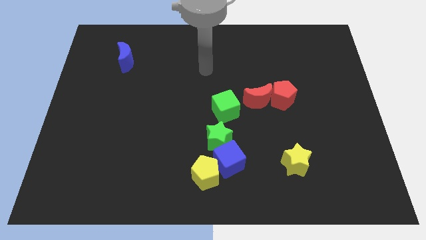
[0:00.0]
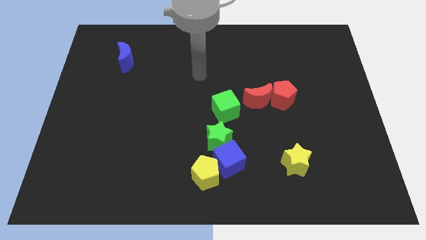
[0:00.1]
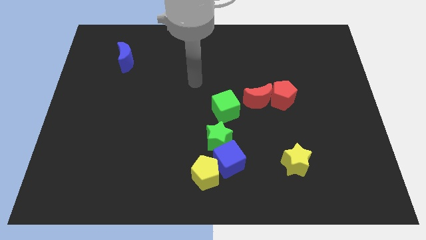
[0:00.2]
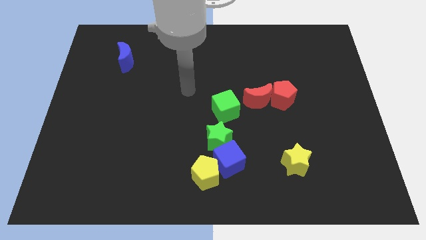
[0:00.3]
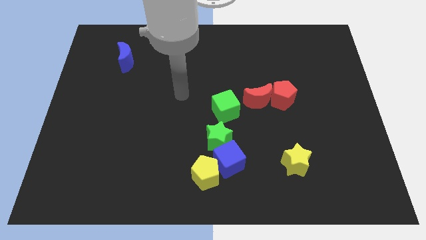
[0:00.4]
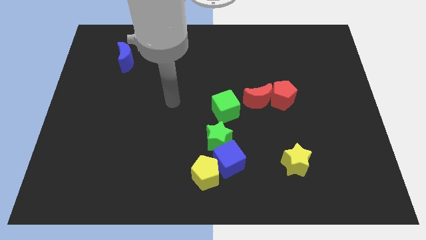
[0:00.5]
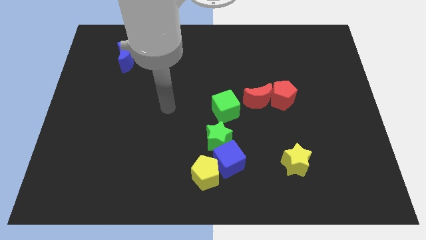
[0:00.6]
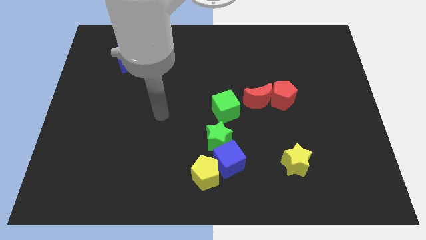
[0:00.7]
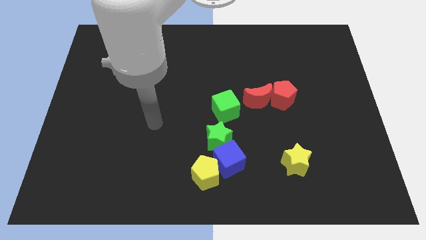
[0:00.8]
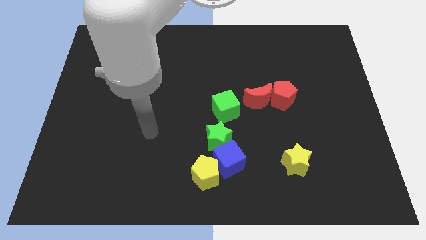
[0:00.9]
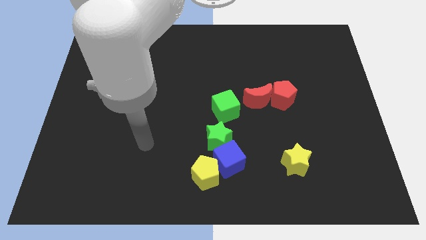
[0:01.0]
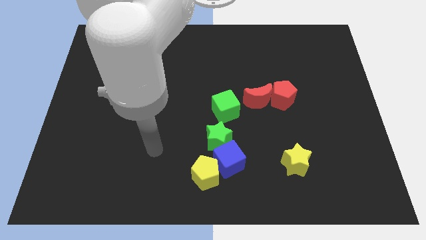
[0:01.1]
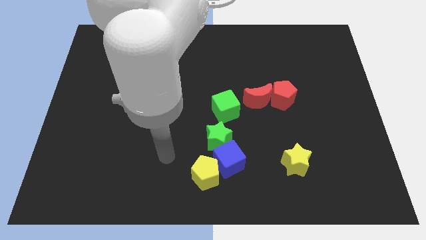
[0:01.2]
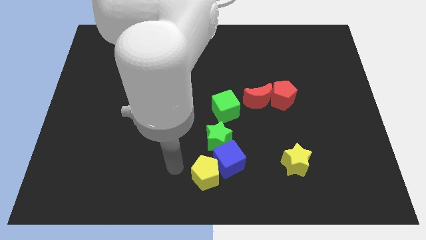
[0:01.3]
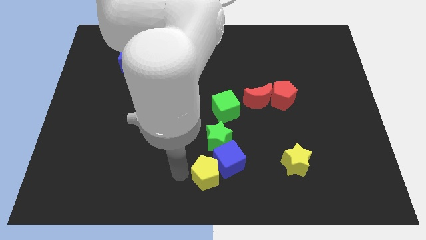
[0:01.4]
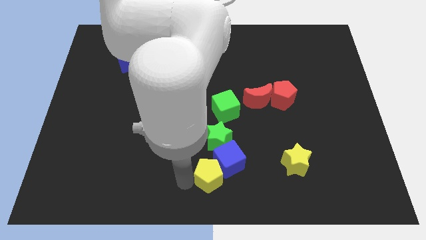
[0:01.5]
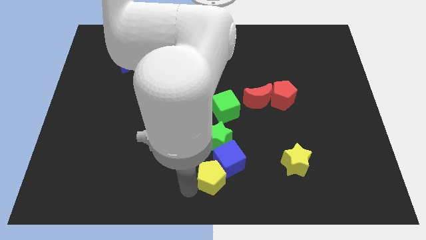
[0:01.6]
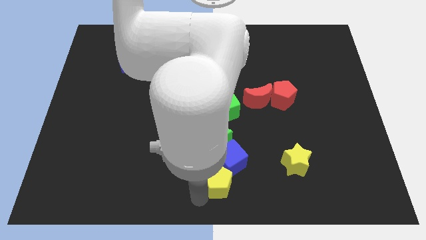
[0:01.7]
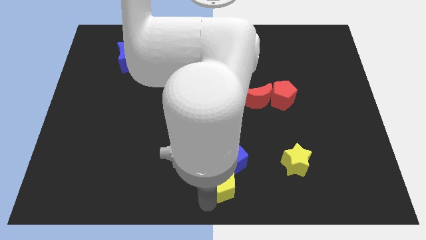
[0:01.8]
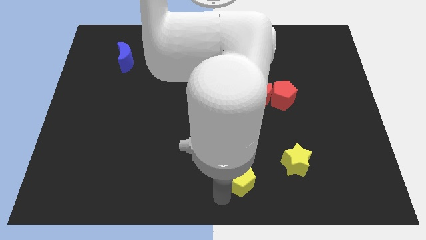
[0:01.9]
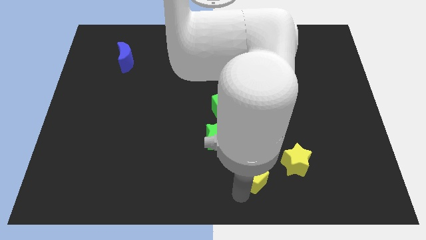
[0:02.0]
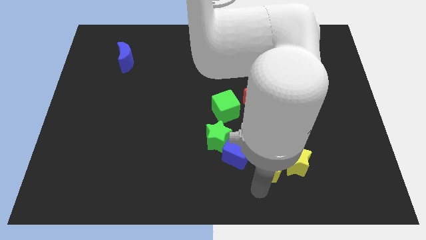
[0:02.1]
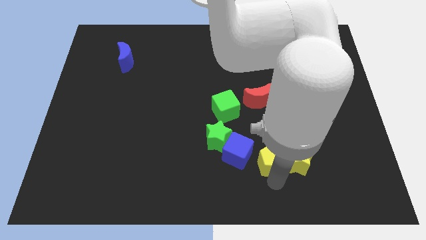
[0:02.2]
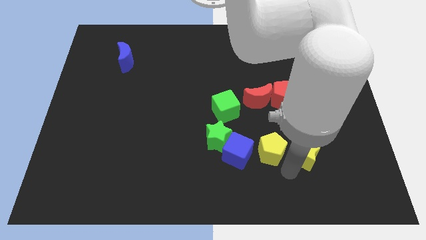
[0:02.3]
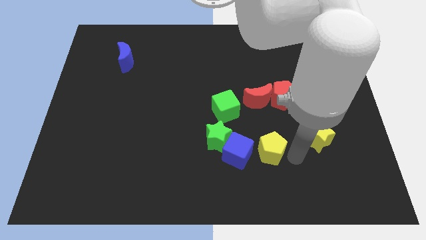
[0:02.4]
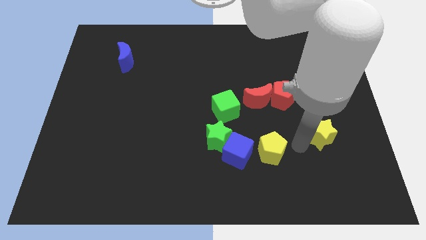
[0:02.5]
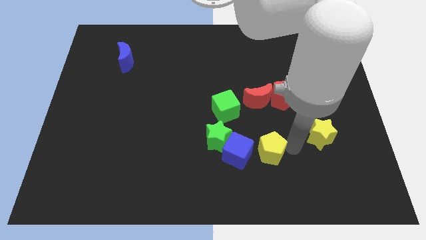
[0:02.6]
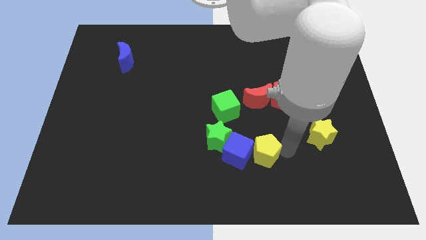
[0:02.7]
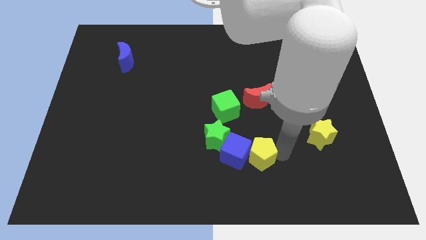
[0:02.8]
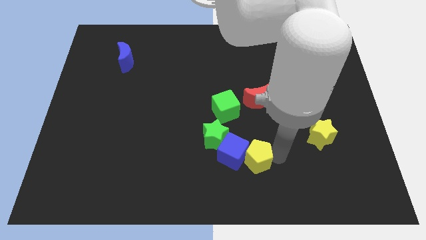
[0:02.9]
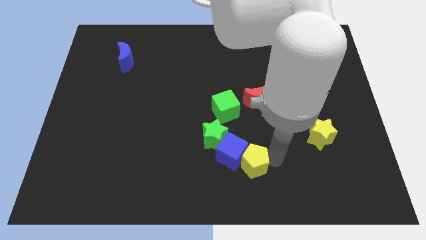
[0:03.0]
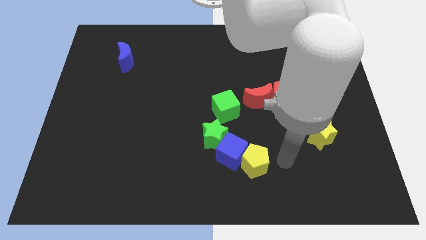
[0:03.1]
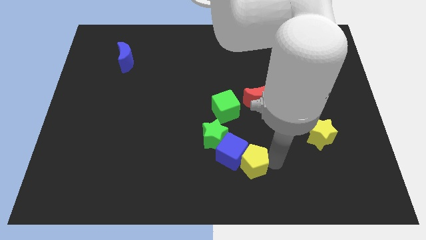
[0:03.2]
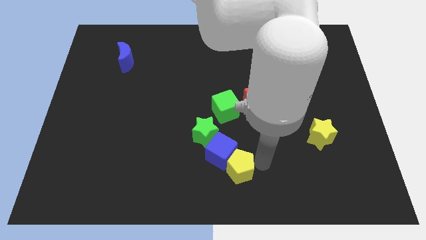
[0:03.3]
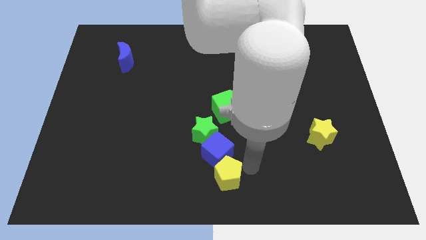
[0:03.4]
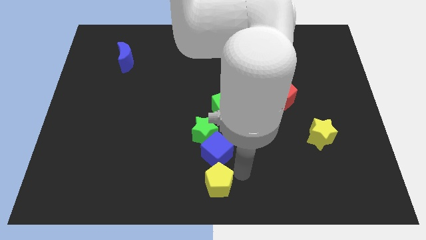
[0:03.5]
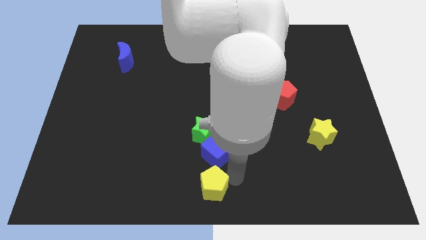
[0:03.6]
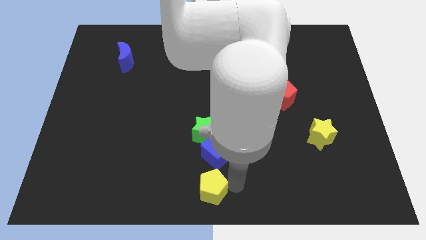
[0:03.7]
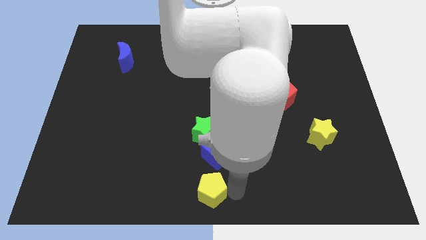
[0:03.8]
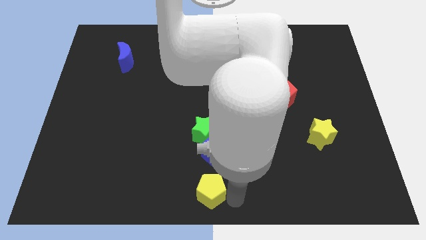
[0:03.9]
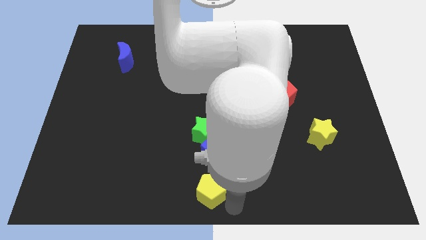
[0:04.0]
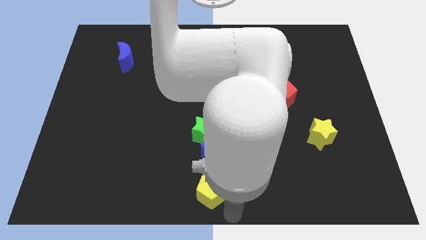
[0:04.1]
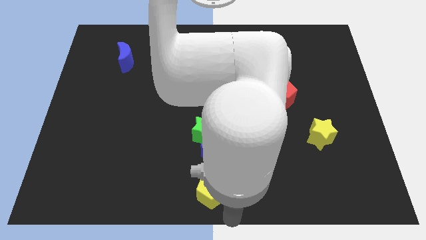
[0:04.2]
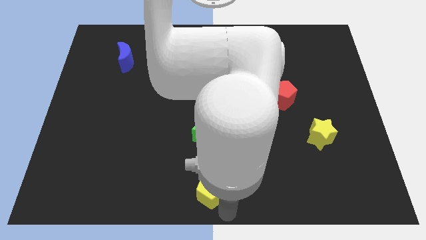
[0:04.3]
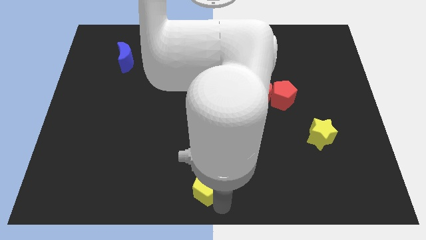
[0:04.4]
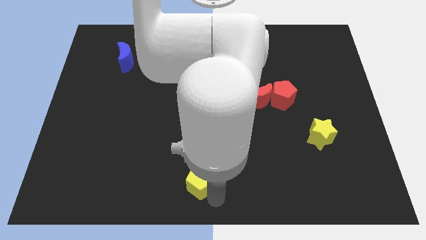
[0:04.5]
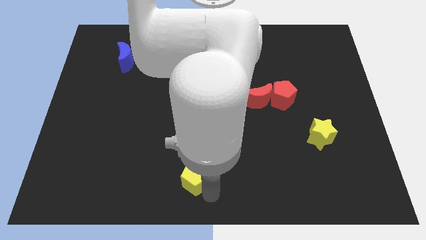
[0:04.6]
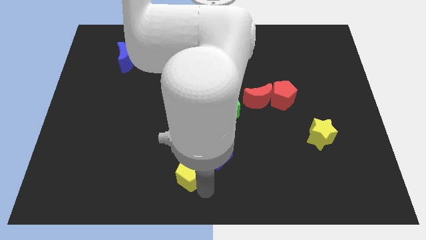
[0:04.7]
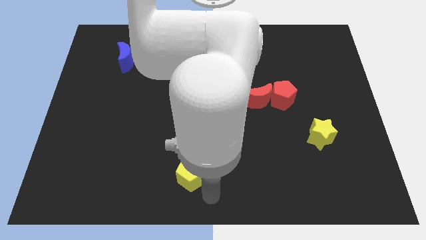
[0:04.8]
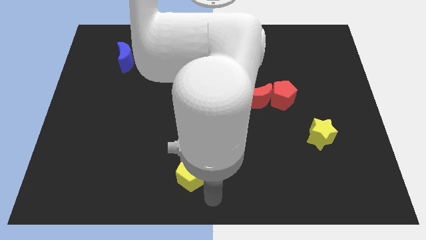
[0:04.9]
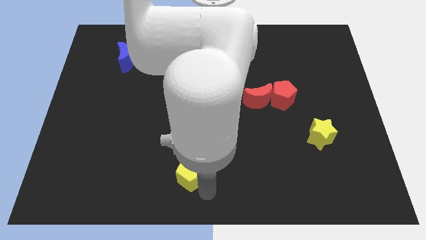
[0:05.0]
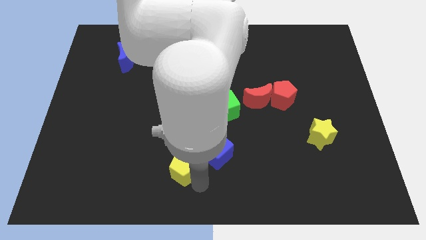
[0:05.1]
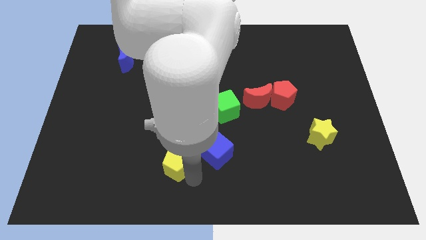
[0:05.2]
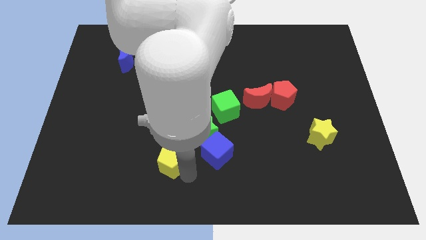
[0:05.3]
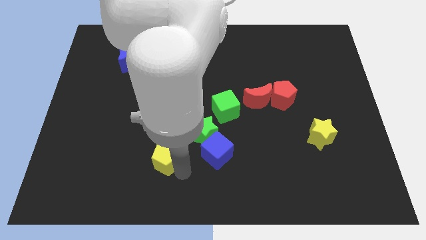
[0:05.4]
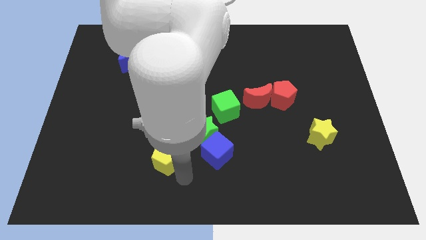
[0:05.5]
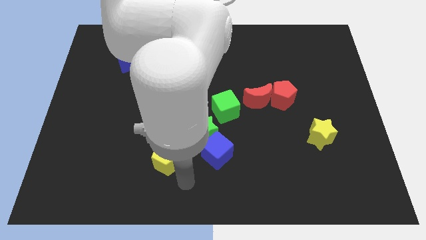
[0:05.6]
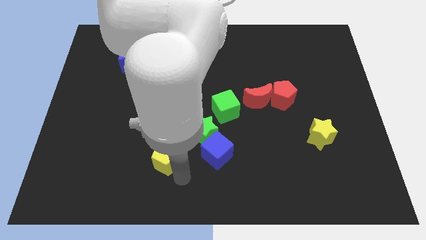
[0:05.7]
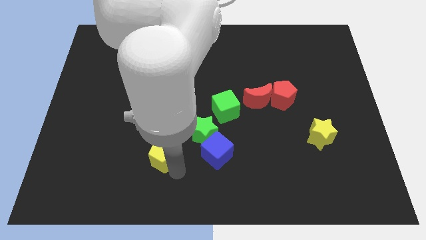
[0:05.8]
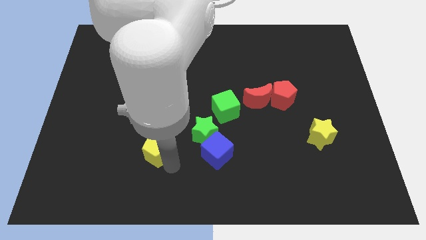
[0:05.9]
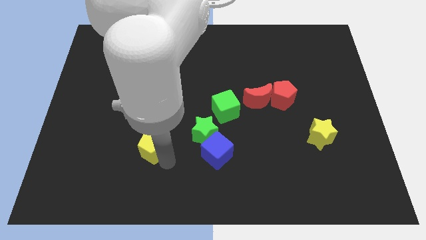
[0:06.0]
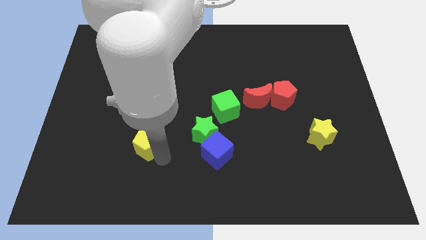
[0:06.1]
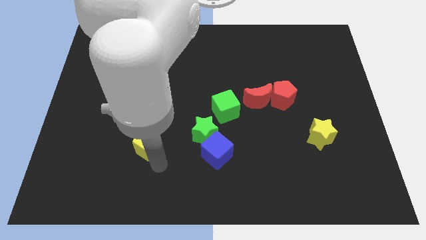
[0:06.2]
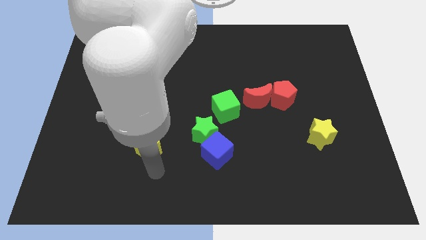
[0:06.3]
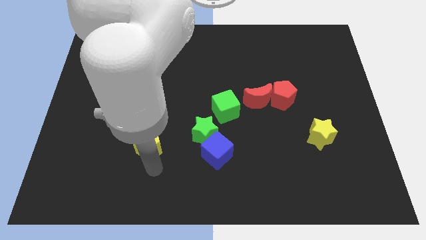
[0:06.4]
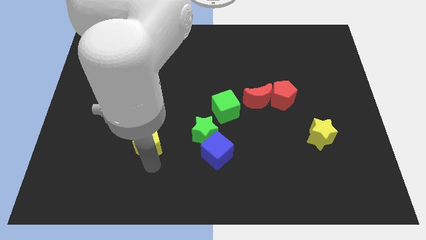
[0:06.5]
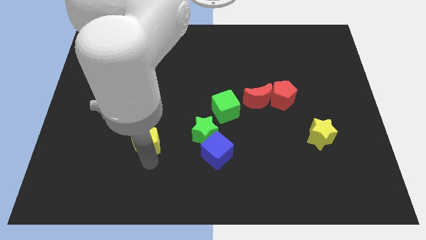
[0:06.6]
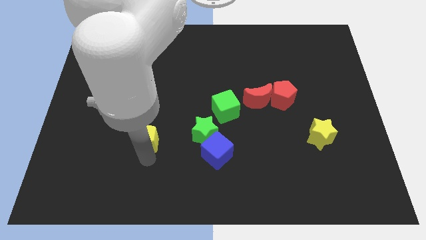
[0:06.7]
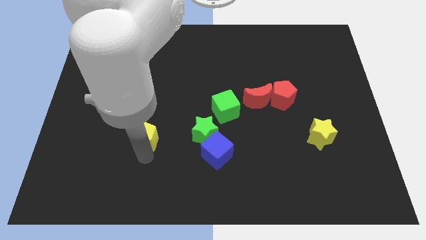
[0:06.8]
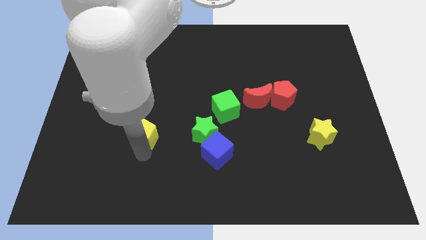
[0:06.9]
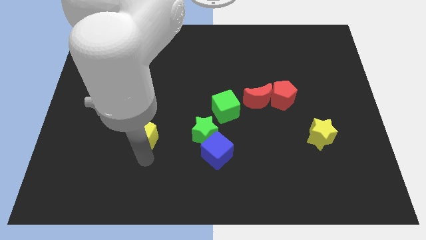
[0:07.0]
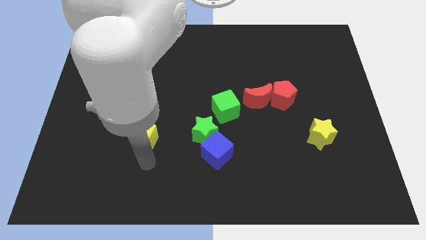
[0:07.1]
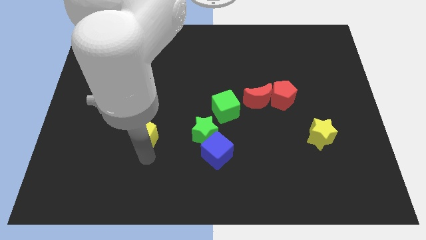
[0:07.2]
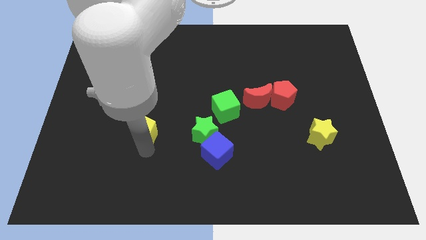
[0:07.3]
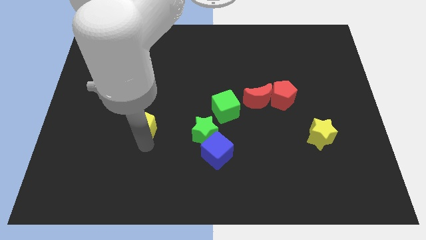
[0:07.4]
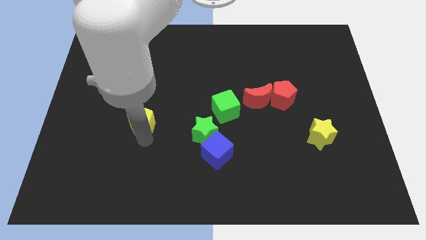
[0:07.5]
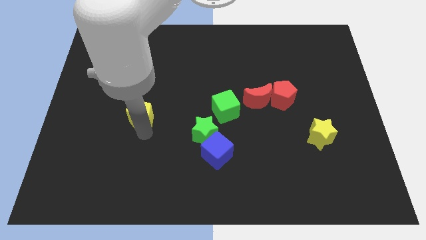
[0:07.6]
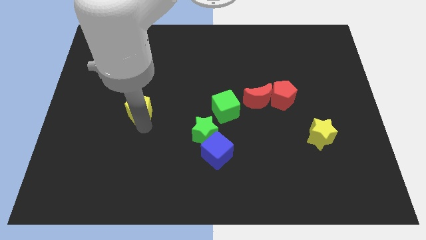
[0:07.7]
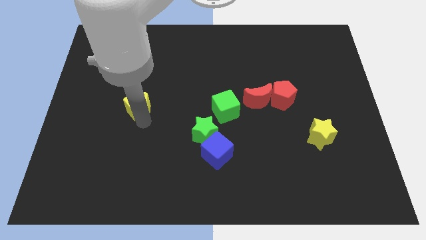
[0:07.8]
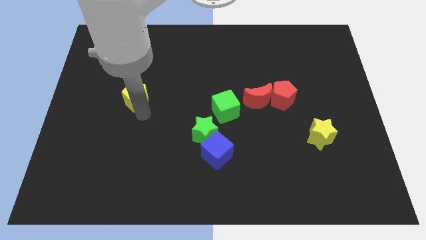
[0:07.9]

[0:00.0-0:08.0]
push the yellow pentagon below the blue moon
